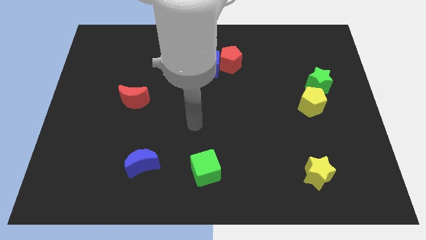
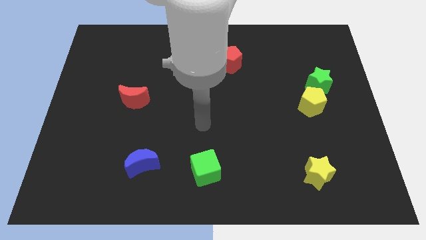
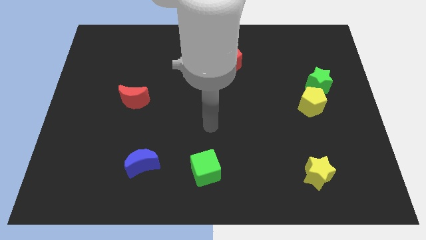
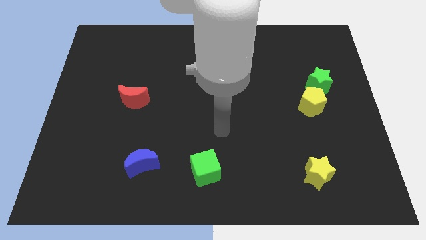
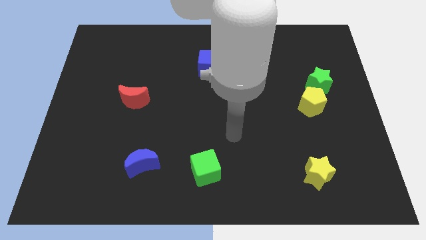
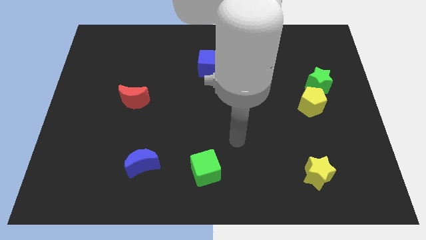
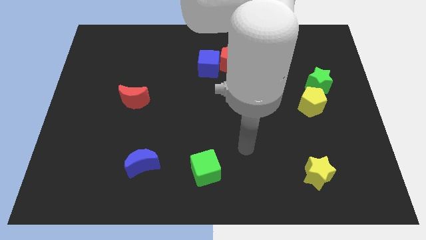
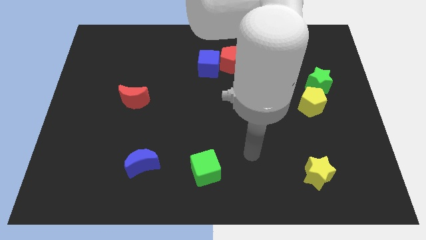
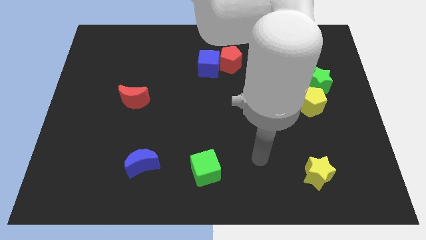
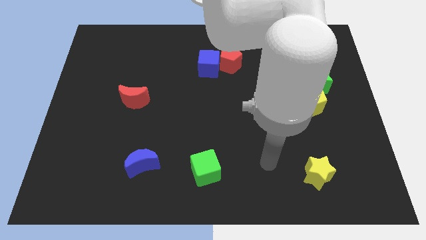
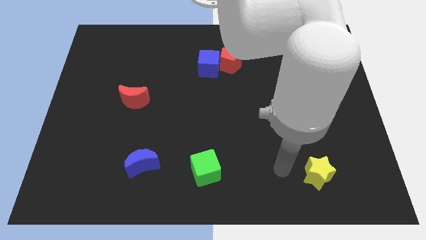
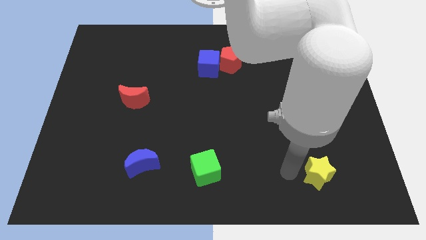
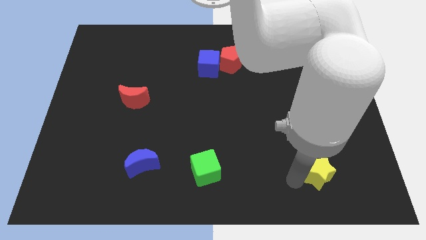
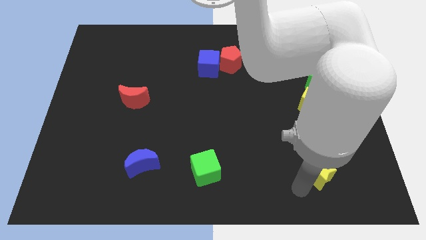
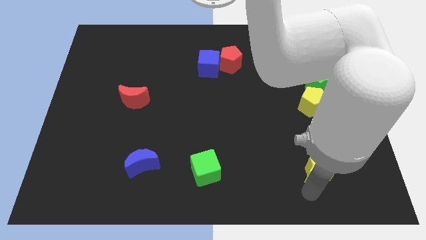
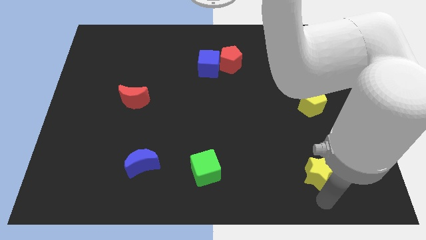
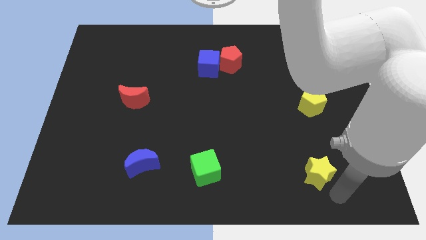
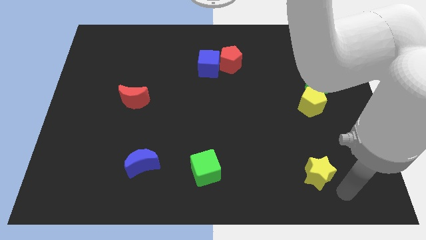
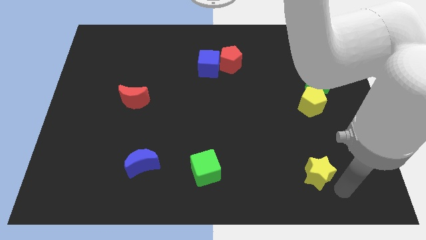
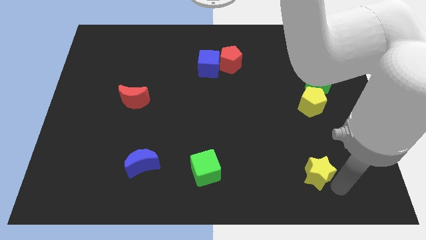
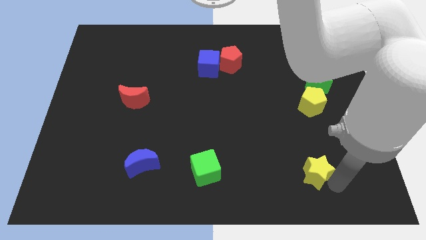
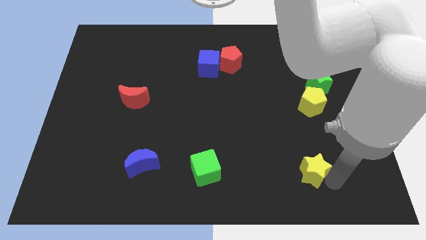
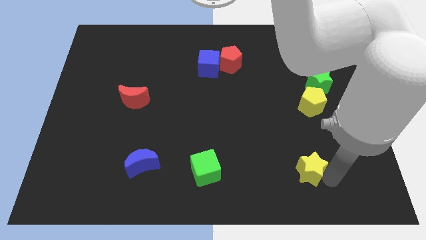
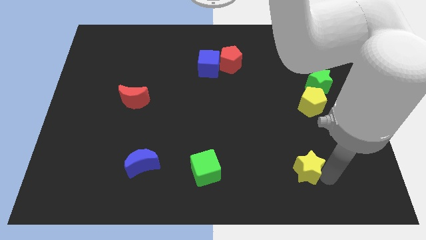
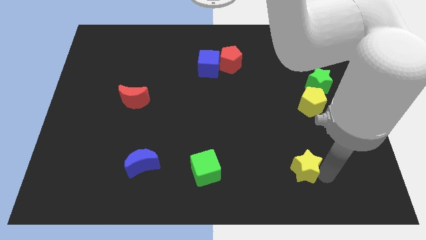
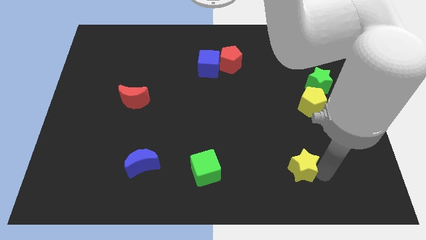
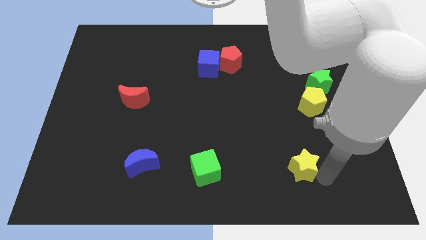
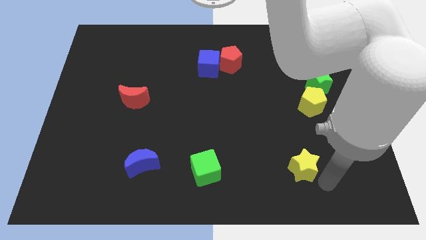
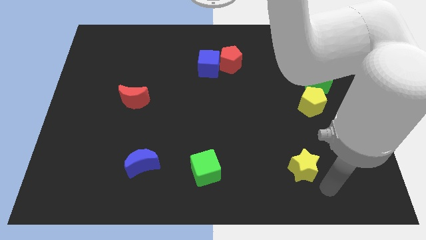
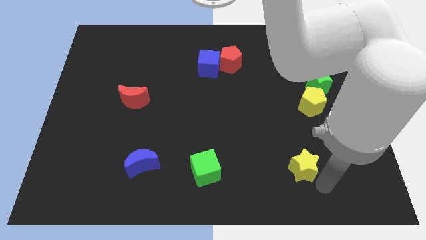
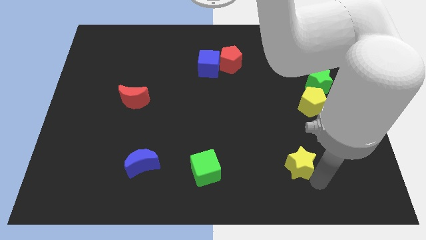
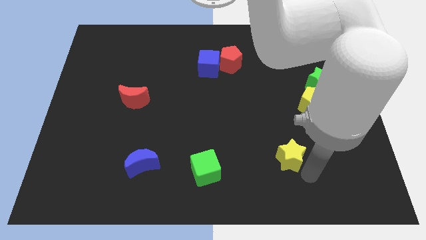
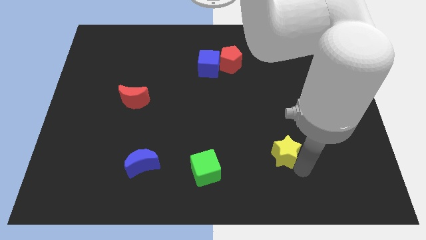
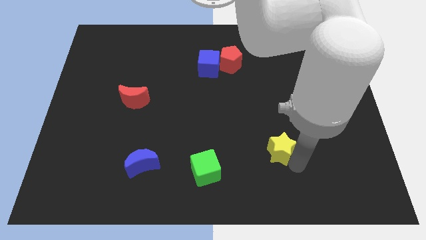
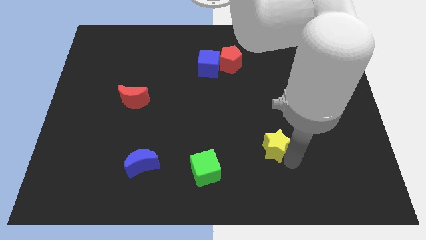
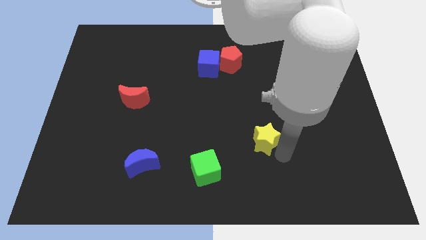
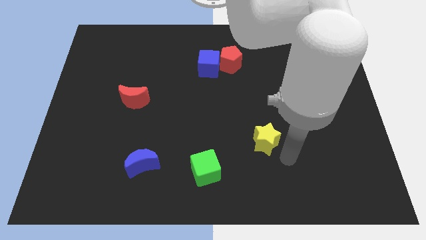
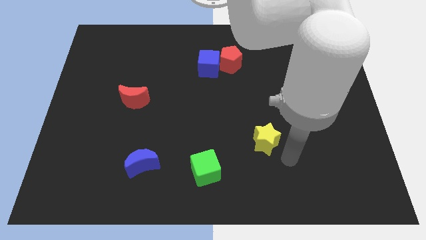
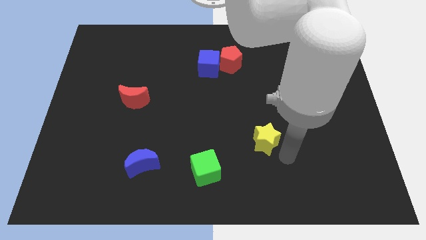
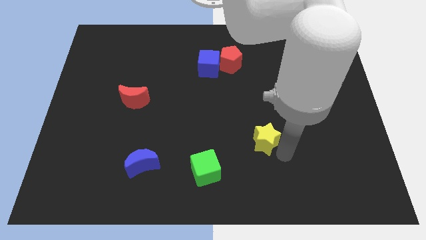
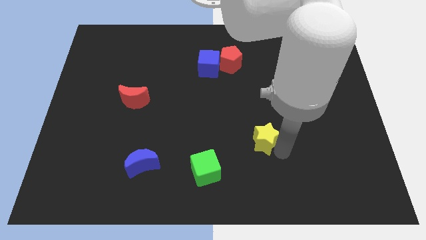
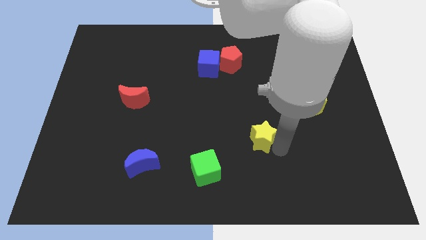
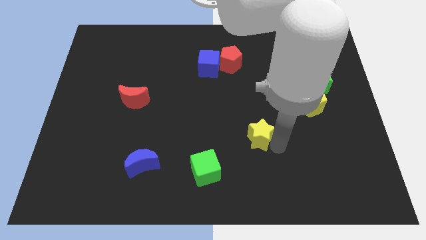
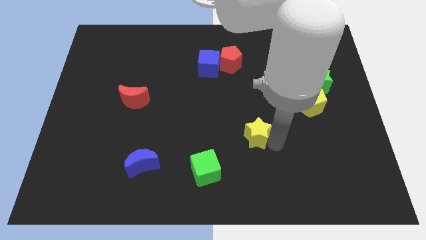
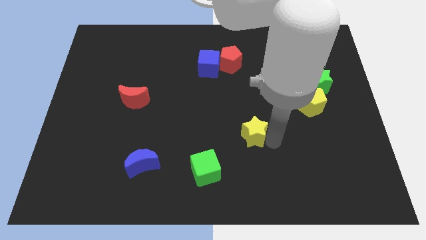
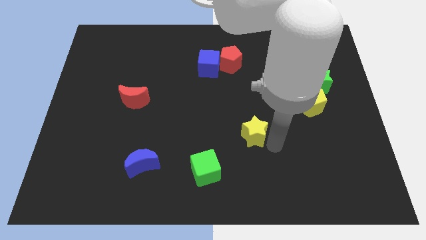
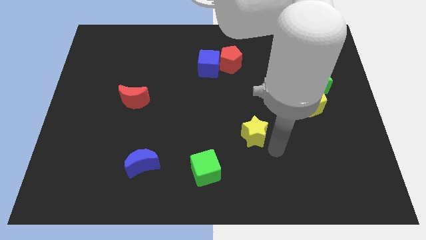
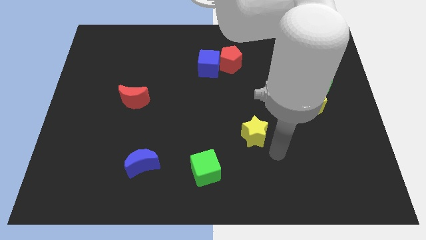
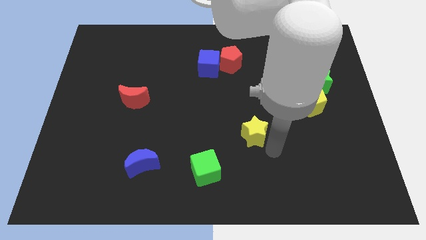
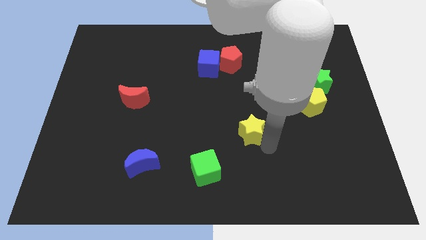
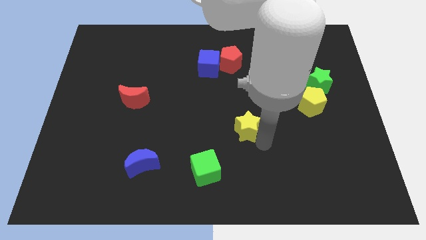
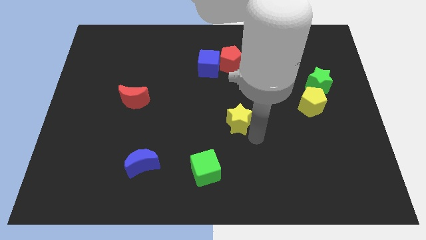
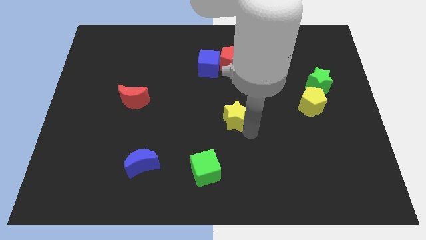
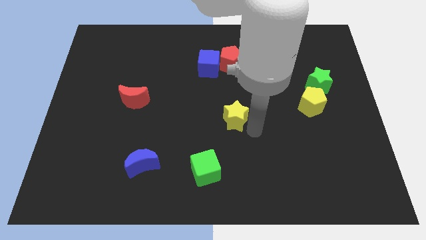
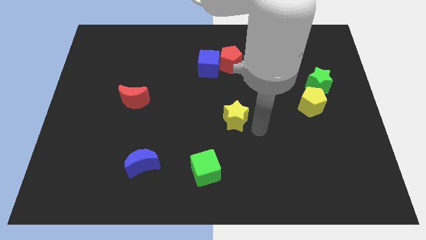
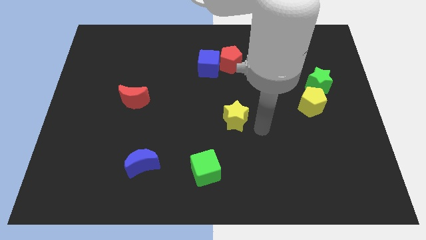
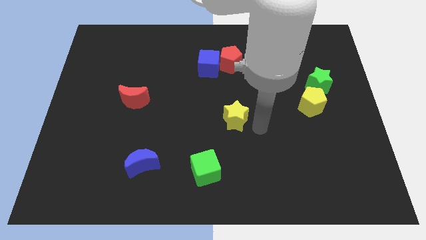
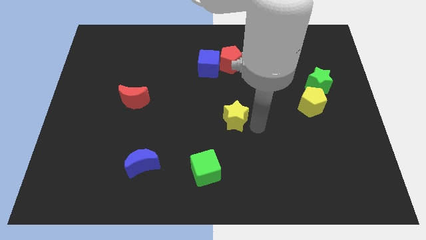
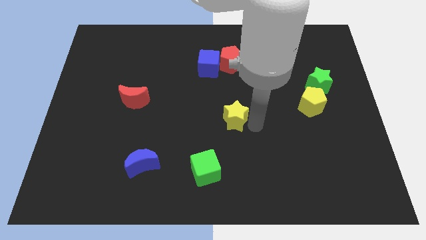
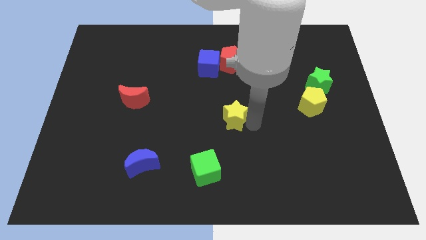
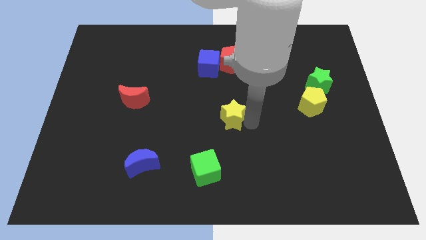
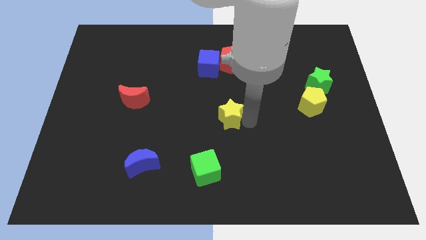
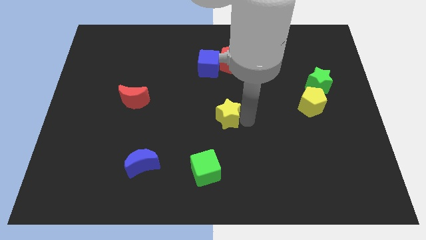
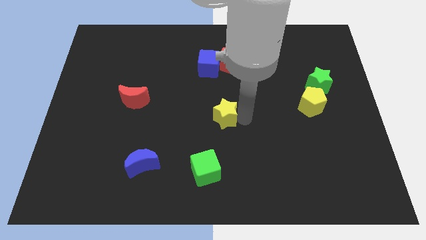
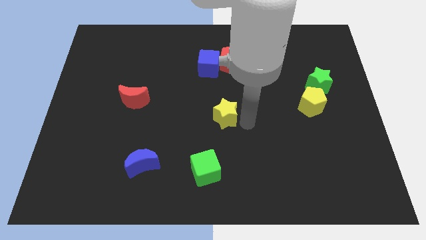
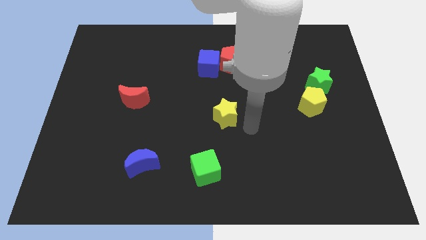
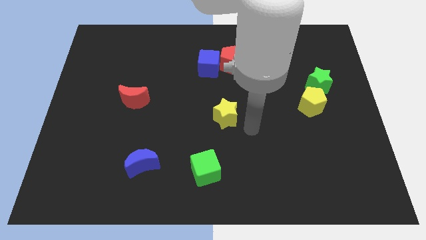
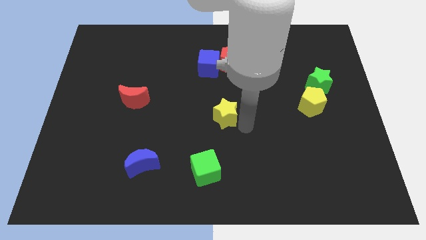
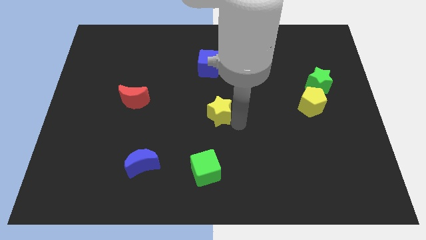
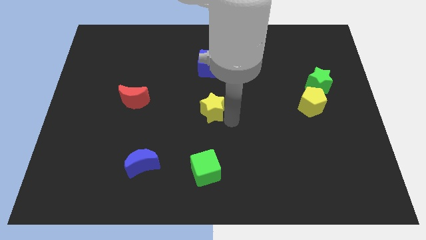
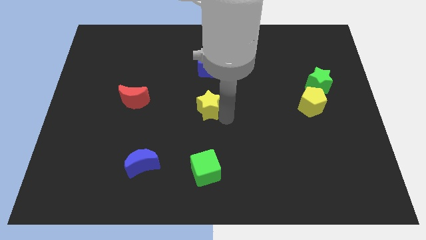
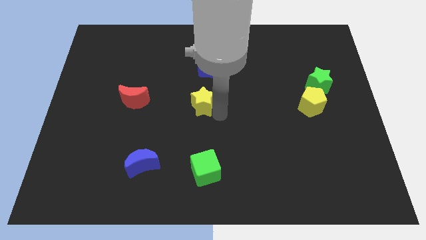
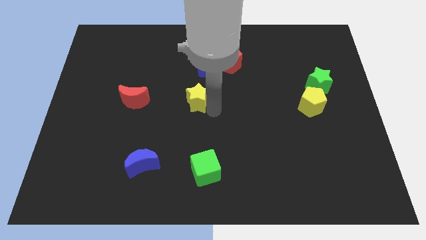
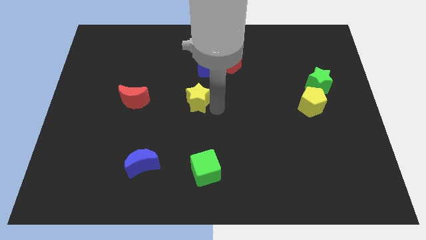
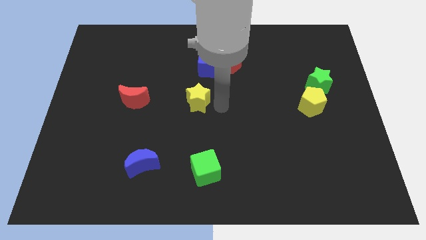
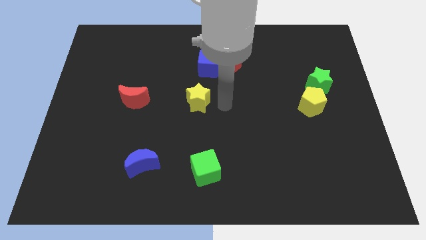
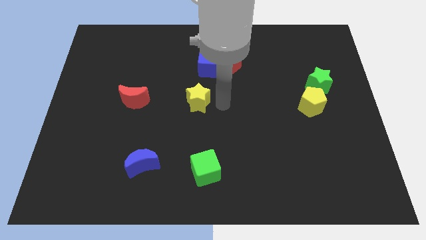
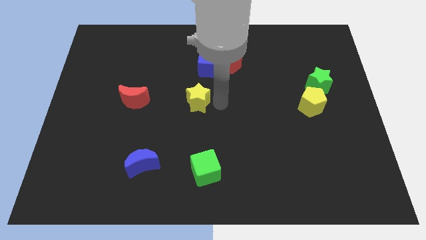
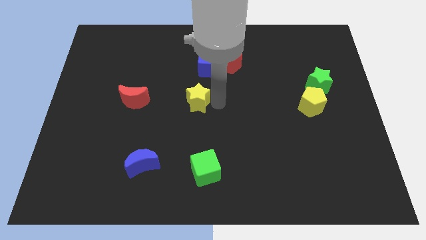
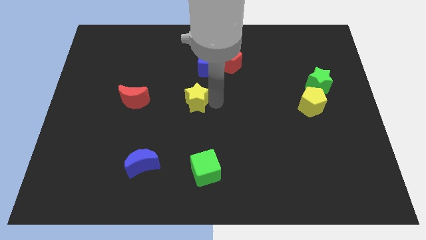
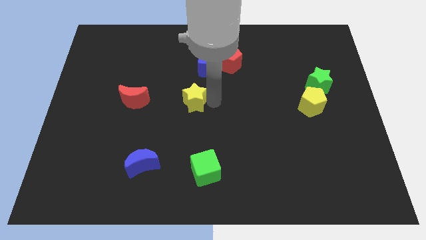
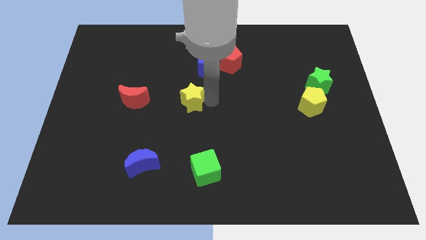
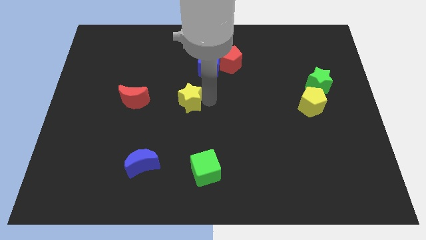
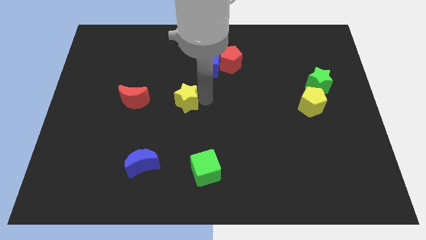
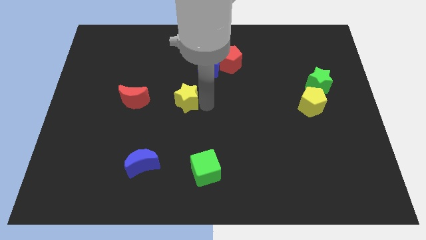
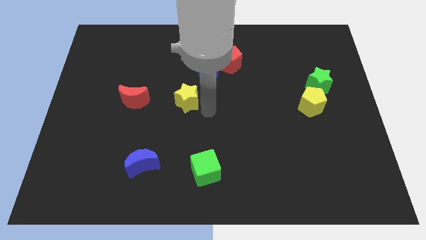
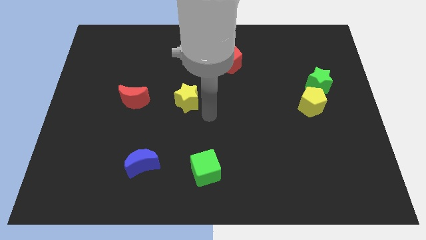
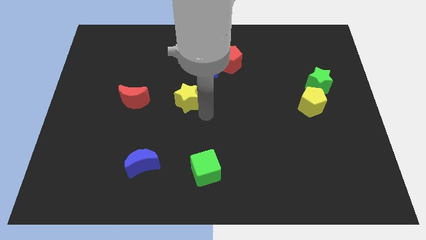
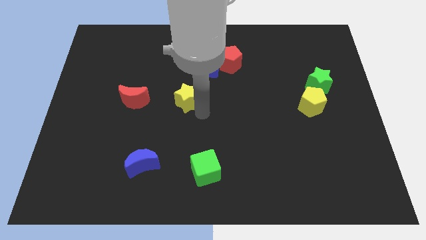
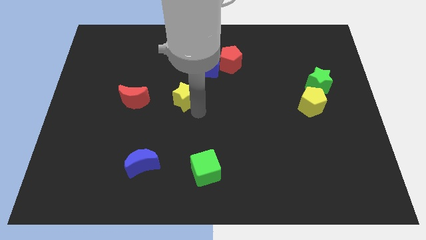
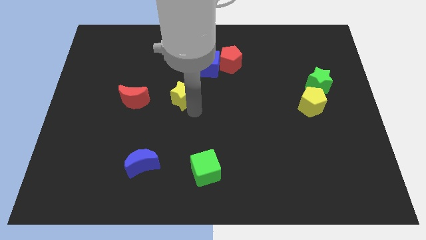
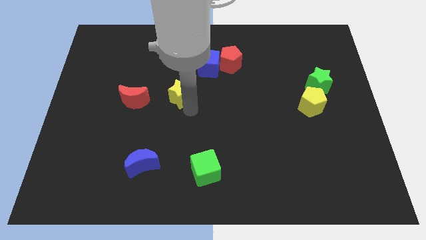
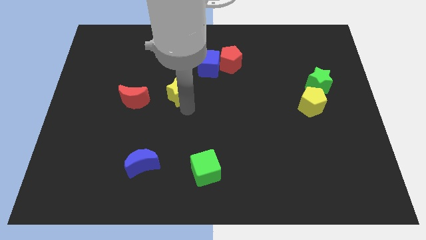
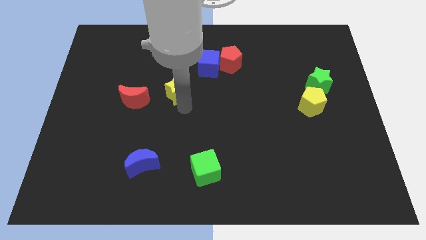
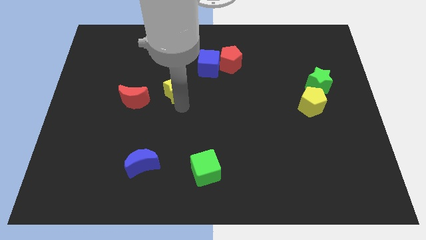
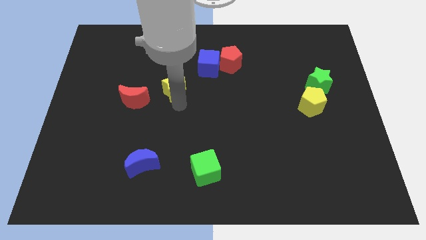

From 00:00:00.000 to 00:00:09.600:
slide the yellow star to the top right side of the red moon
